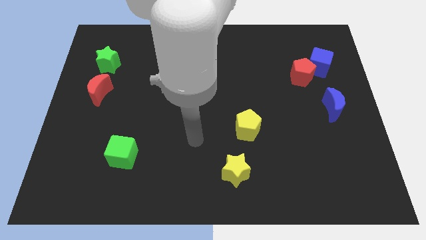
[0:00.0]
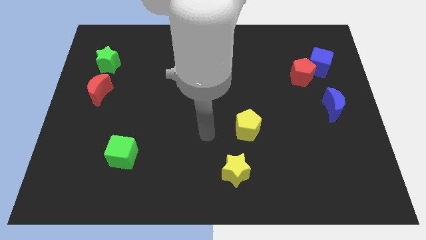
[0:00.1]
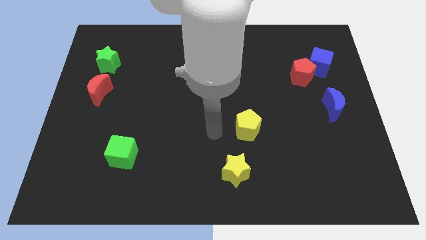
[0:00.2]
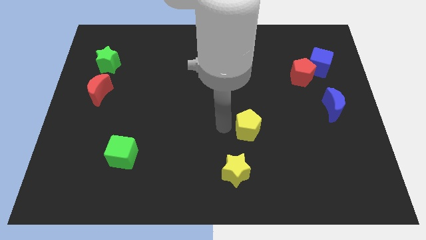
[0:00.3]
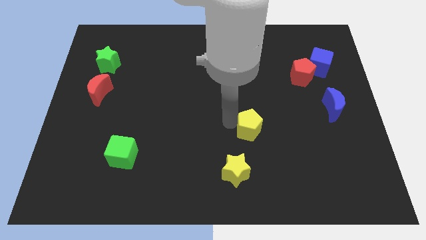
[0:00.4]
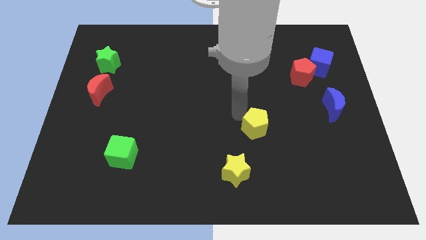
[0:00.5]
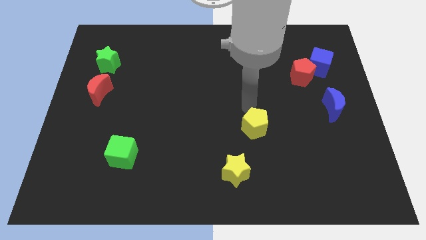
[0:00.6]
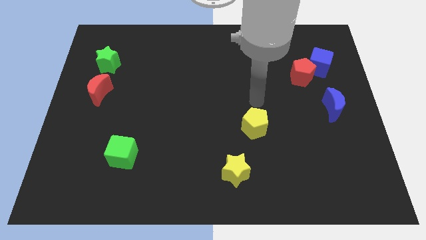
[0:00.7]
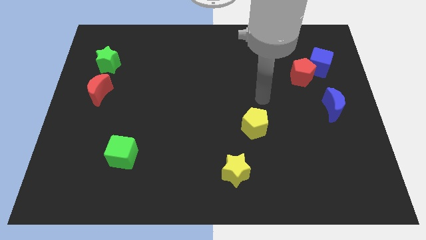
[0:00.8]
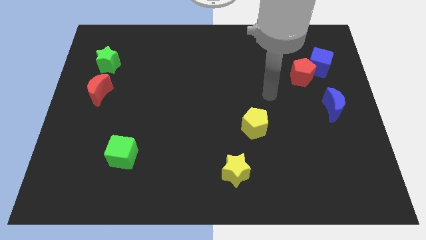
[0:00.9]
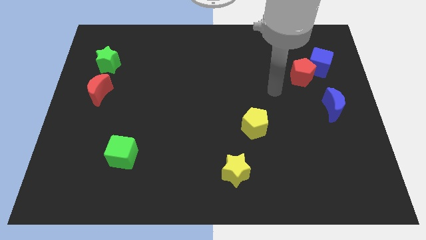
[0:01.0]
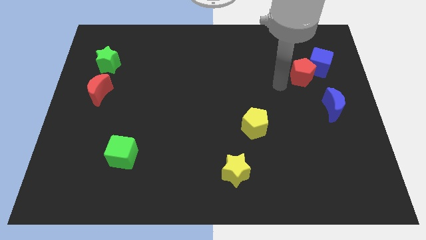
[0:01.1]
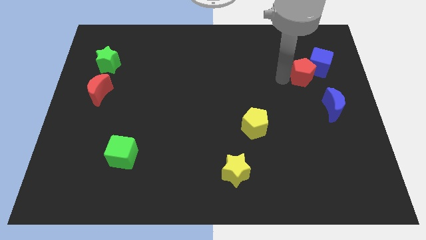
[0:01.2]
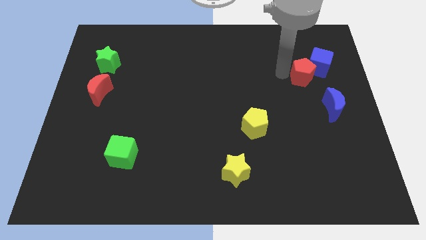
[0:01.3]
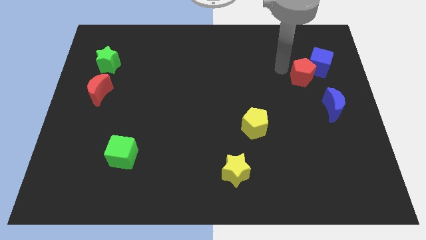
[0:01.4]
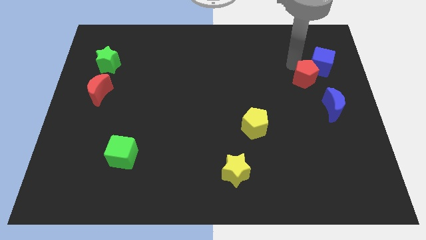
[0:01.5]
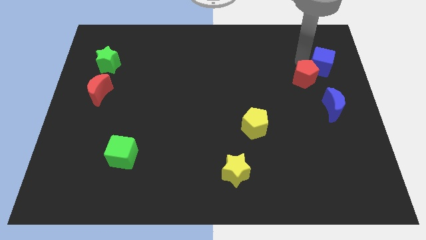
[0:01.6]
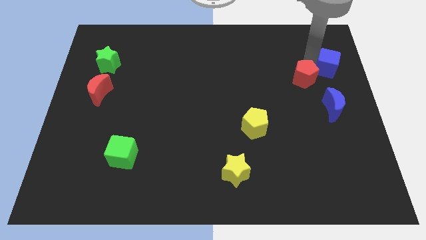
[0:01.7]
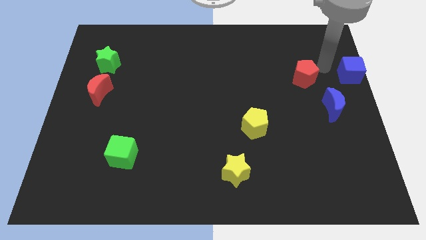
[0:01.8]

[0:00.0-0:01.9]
separate the red pentagon from the blue cube

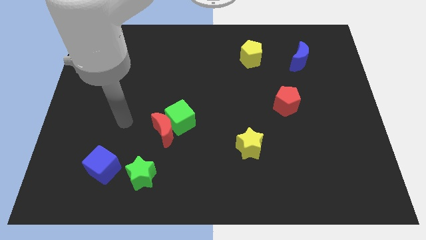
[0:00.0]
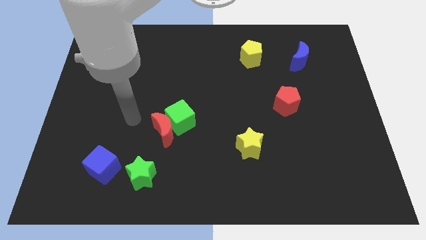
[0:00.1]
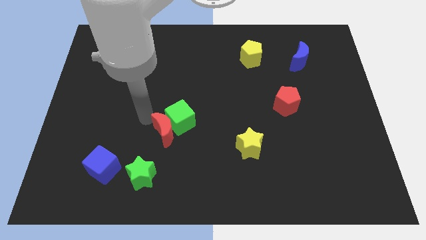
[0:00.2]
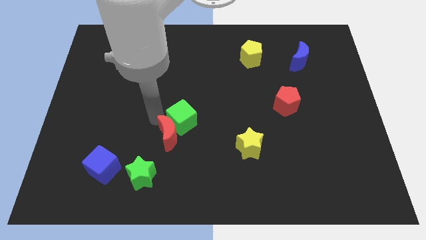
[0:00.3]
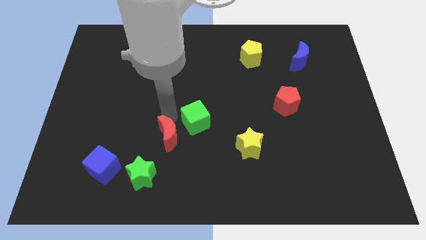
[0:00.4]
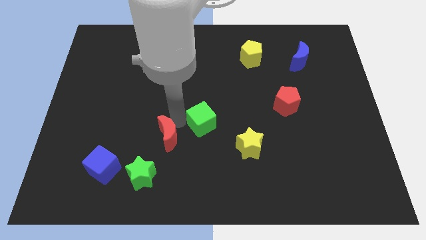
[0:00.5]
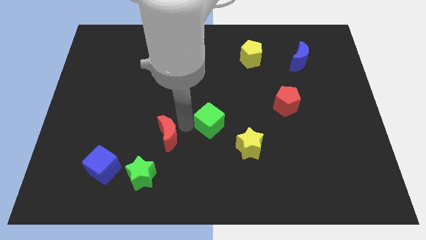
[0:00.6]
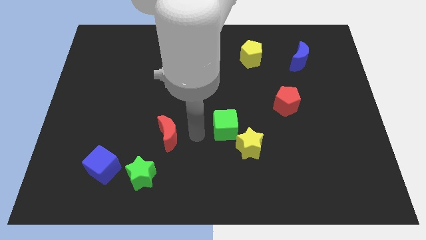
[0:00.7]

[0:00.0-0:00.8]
separate the red moon from the green cube

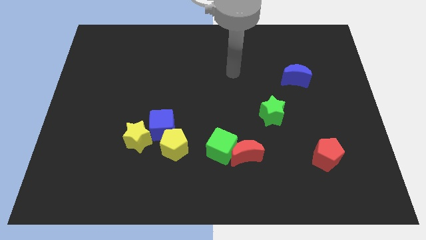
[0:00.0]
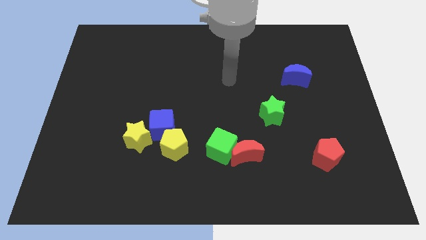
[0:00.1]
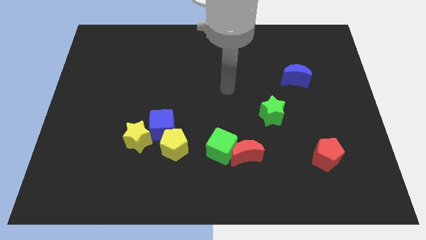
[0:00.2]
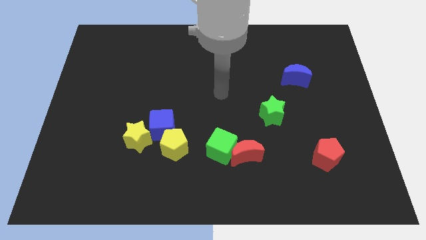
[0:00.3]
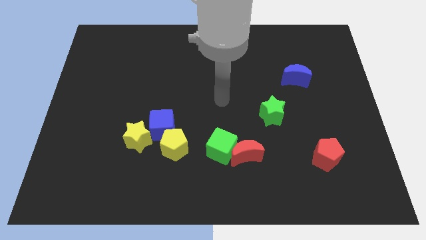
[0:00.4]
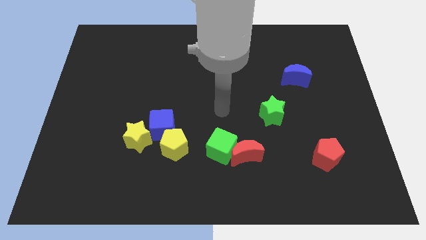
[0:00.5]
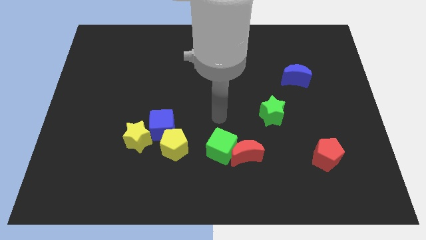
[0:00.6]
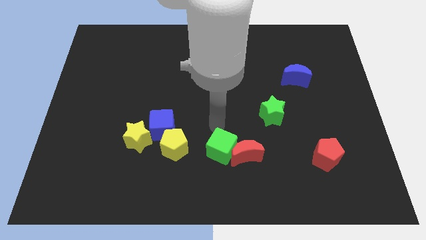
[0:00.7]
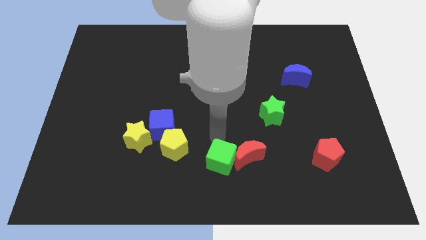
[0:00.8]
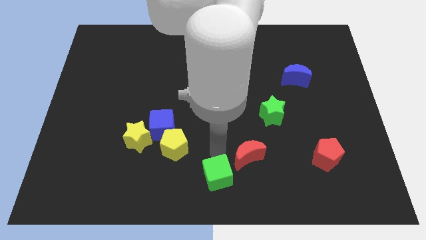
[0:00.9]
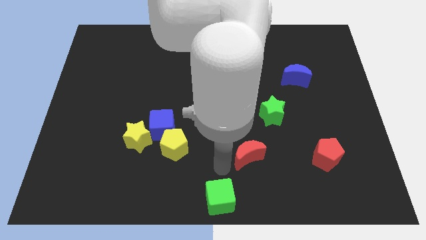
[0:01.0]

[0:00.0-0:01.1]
move the red moon away from the green cube

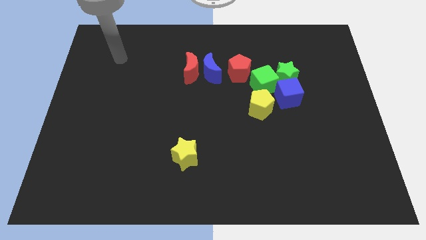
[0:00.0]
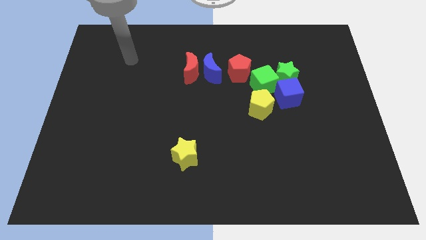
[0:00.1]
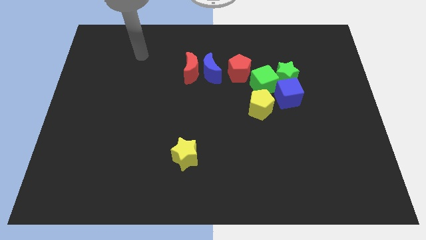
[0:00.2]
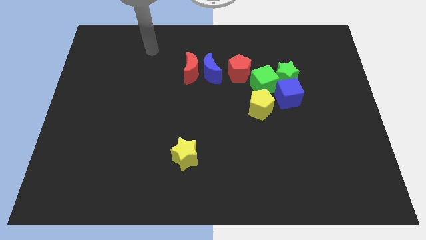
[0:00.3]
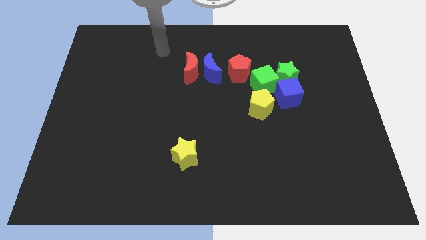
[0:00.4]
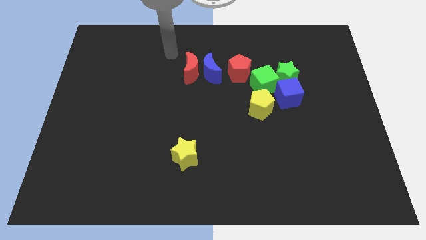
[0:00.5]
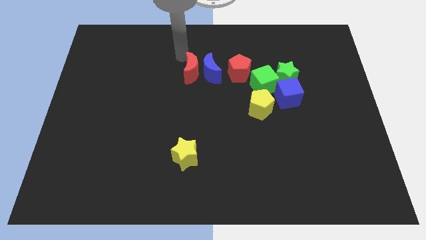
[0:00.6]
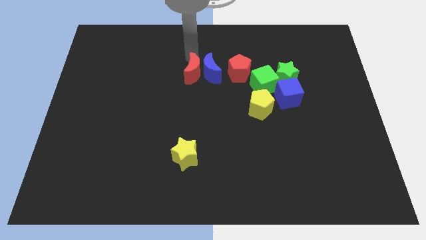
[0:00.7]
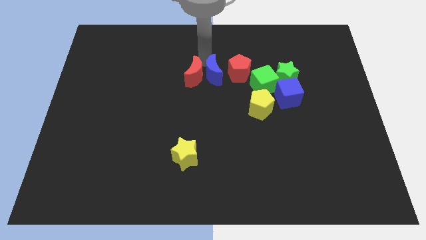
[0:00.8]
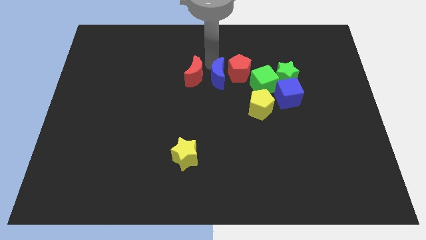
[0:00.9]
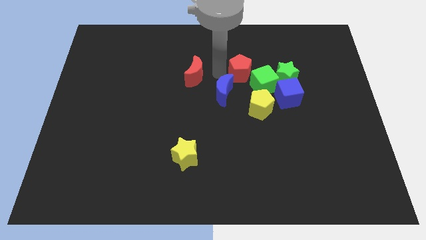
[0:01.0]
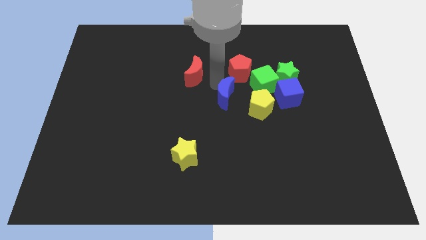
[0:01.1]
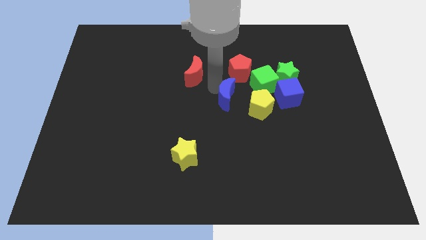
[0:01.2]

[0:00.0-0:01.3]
separate the red moon from the blue moon

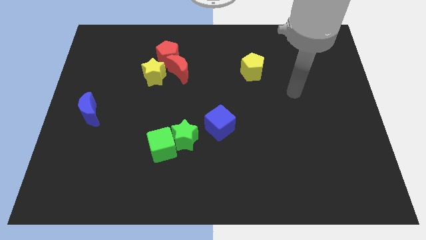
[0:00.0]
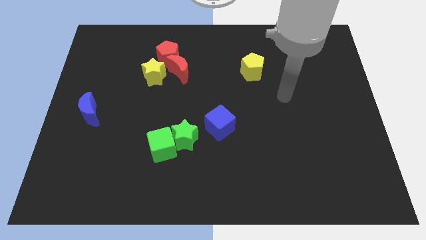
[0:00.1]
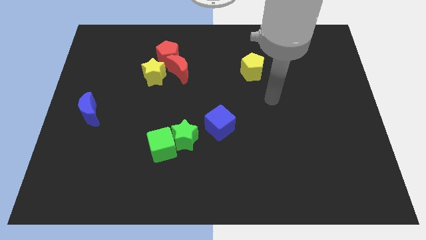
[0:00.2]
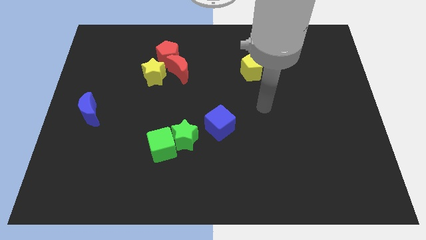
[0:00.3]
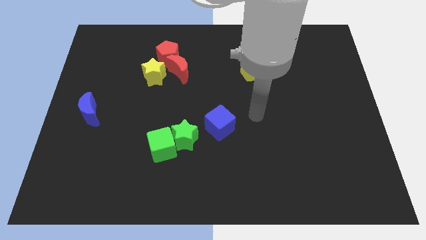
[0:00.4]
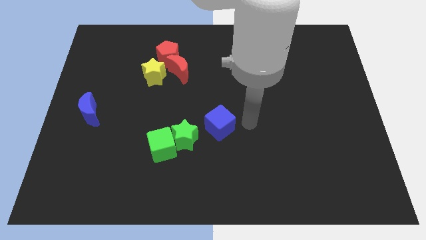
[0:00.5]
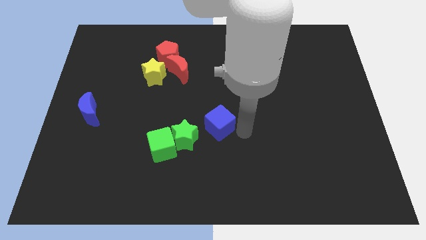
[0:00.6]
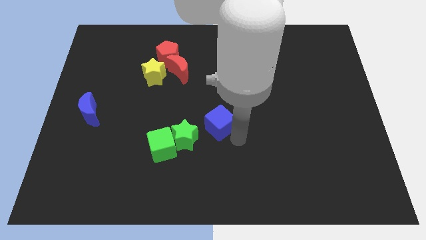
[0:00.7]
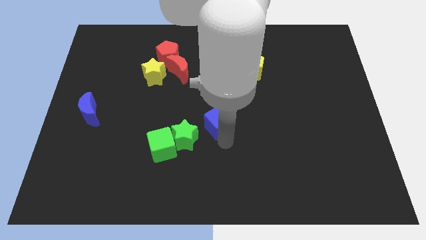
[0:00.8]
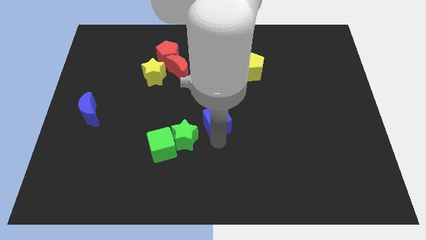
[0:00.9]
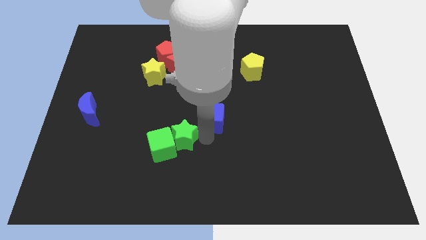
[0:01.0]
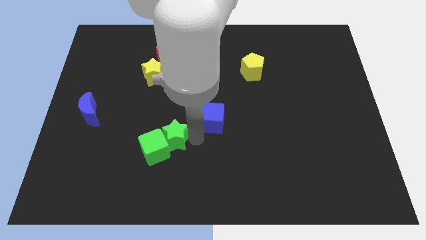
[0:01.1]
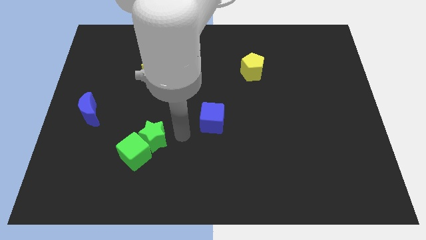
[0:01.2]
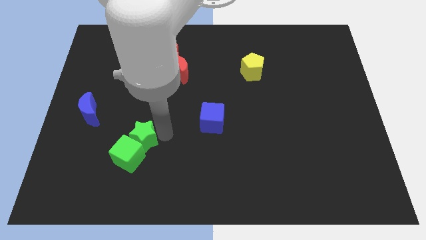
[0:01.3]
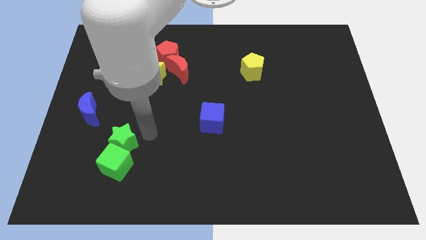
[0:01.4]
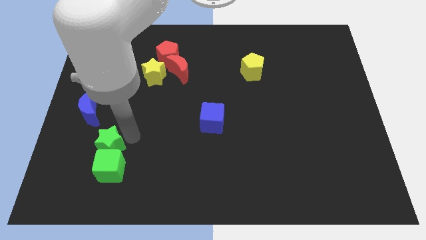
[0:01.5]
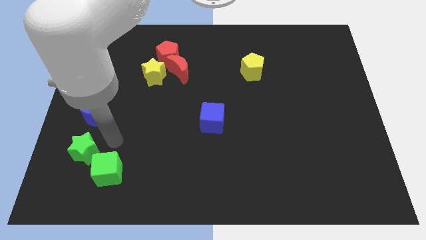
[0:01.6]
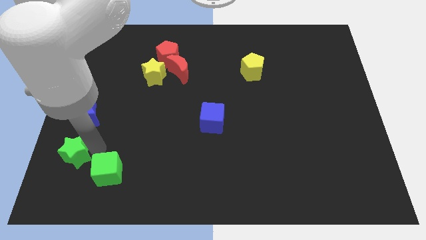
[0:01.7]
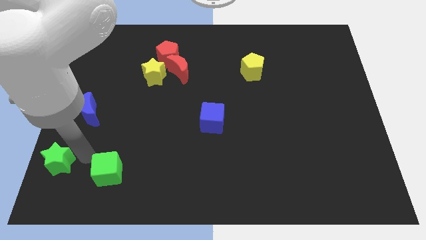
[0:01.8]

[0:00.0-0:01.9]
move the green cube away from the green star

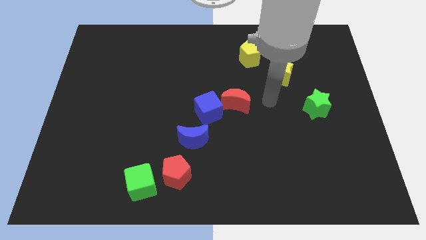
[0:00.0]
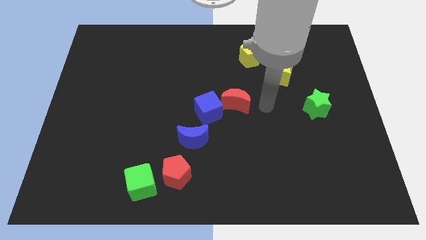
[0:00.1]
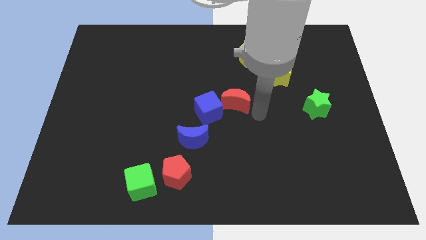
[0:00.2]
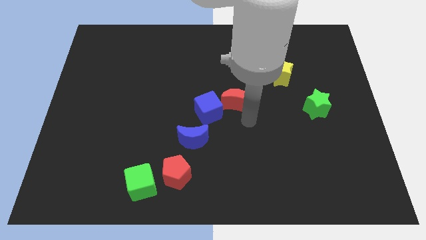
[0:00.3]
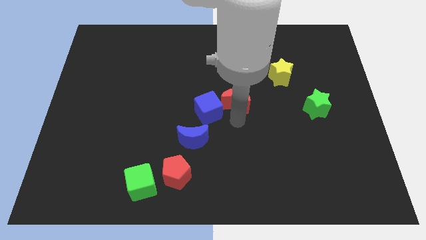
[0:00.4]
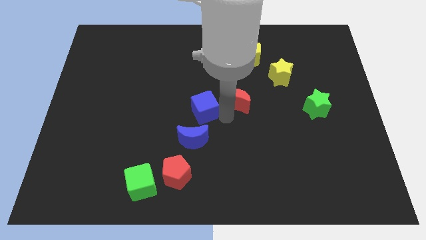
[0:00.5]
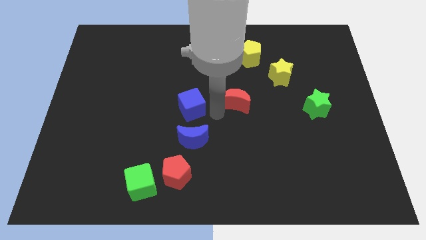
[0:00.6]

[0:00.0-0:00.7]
move the red moon away from the blue cube

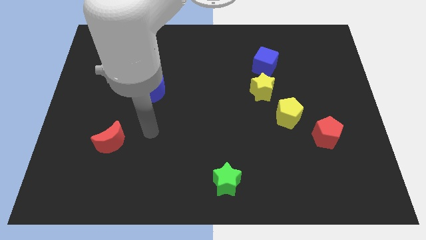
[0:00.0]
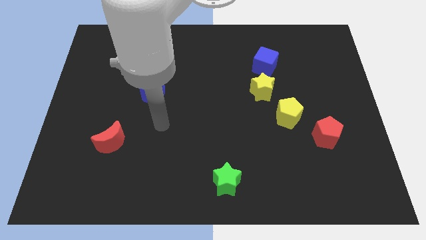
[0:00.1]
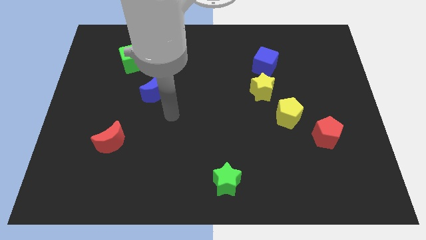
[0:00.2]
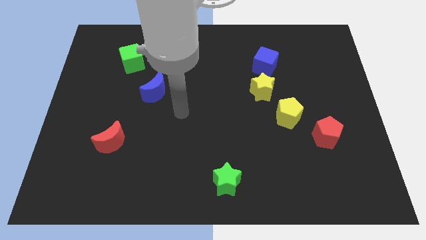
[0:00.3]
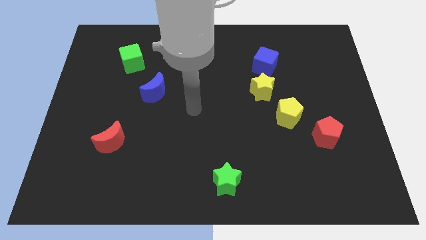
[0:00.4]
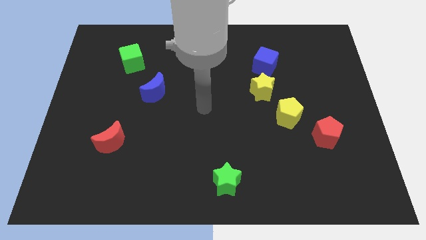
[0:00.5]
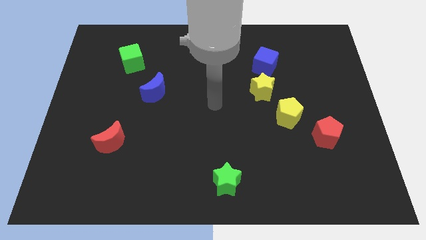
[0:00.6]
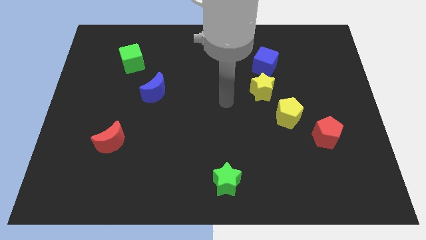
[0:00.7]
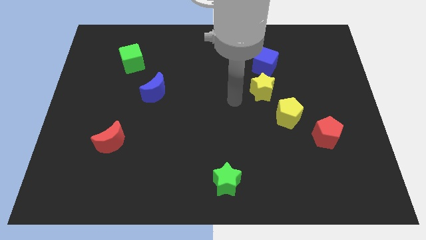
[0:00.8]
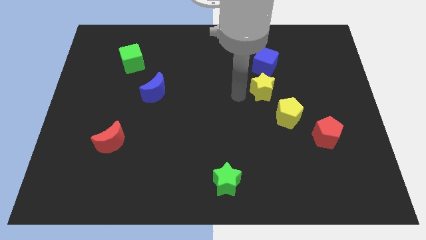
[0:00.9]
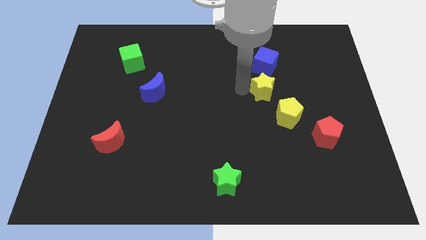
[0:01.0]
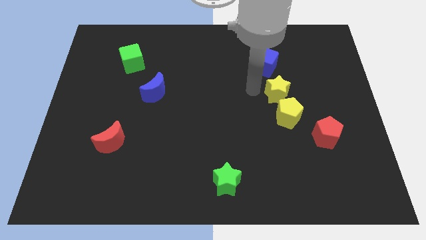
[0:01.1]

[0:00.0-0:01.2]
pull the blue cube apart from the yellow star

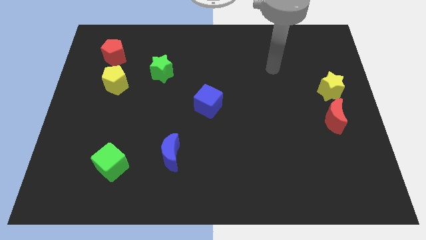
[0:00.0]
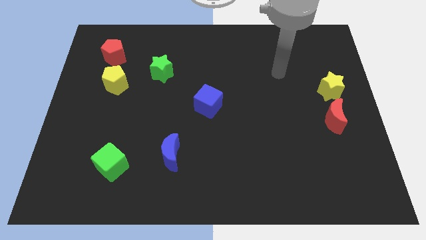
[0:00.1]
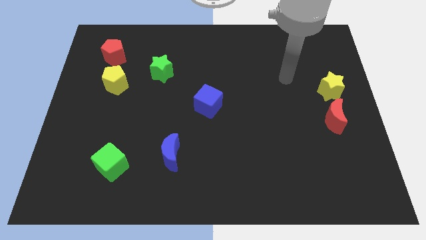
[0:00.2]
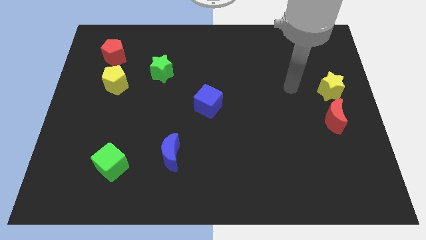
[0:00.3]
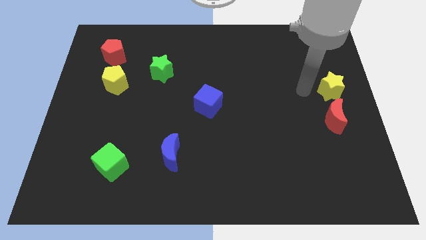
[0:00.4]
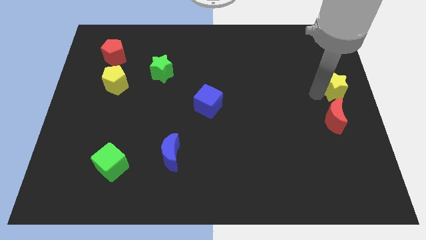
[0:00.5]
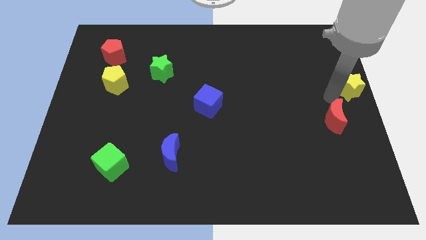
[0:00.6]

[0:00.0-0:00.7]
separate the red moon from the yellow star
